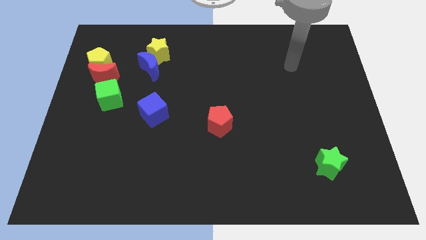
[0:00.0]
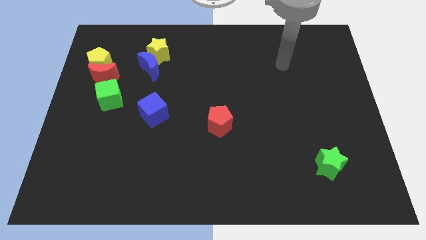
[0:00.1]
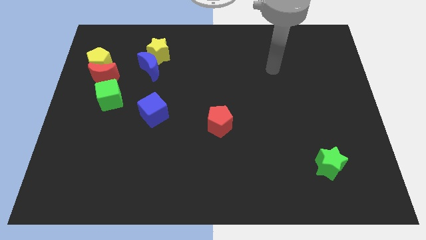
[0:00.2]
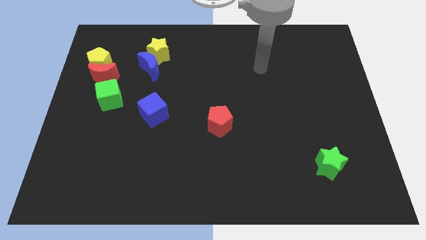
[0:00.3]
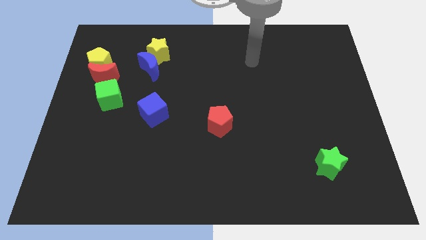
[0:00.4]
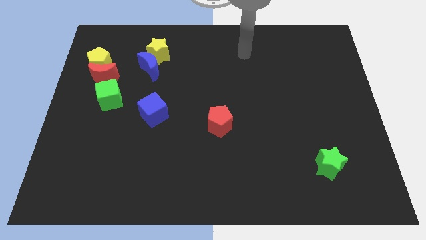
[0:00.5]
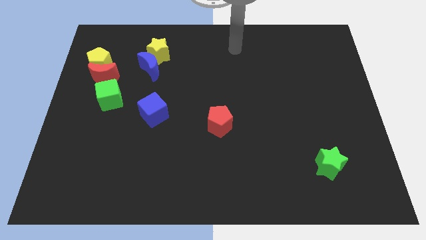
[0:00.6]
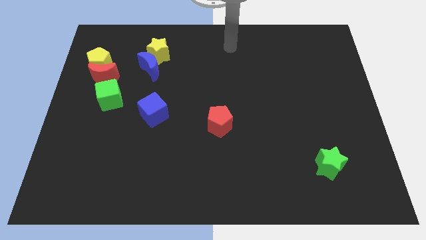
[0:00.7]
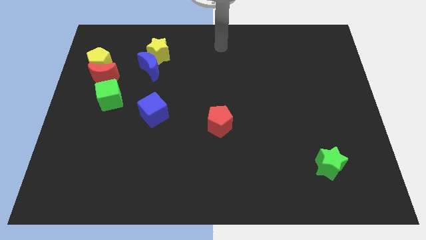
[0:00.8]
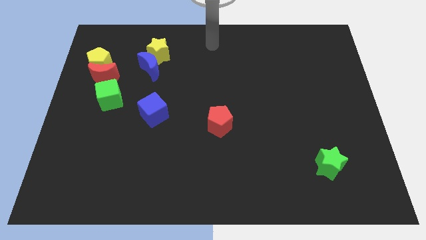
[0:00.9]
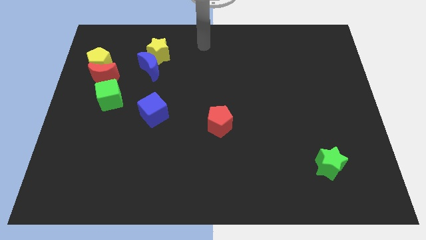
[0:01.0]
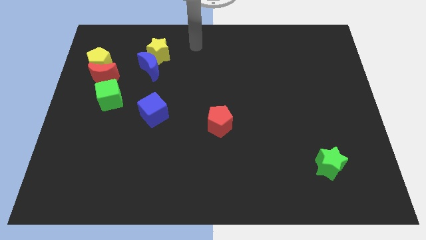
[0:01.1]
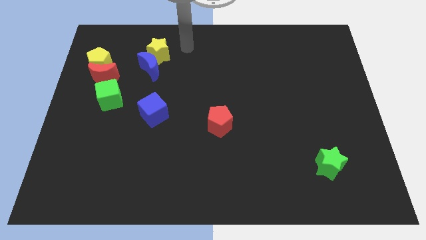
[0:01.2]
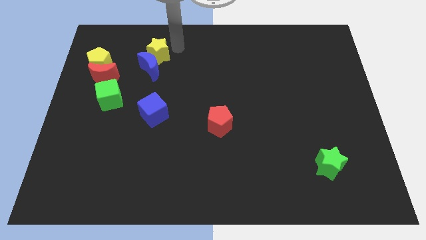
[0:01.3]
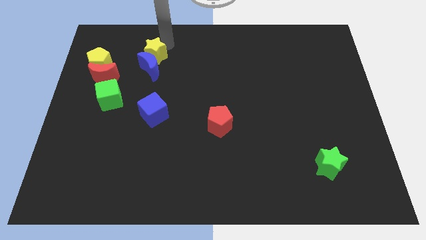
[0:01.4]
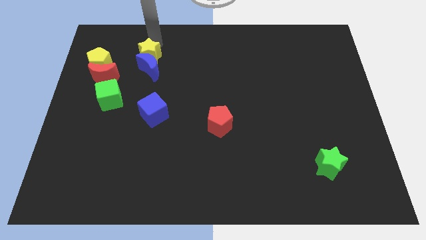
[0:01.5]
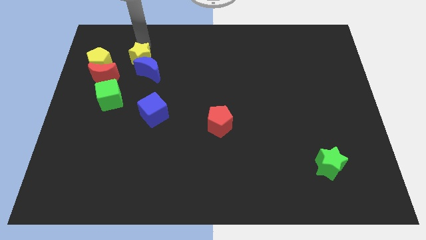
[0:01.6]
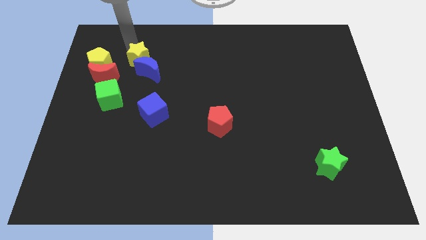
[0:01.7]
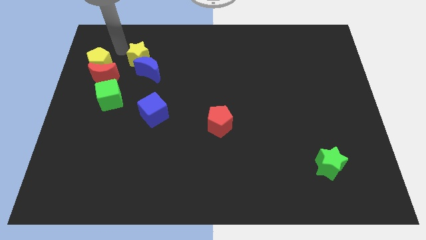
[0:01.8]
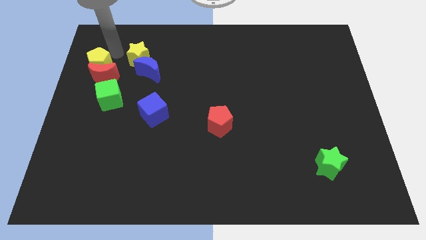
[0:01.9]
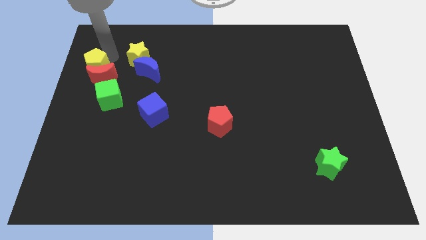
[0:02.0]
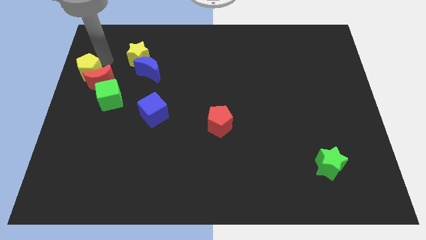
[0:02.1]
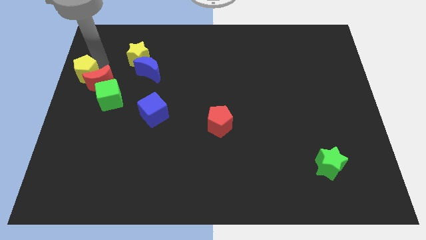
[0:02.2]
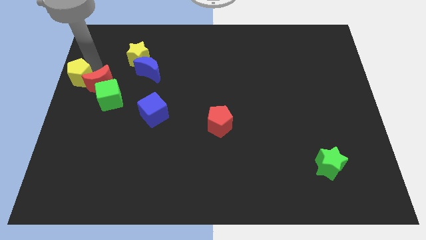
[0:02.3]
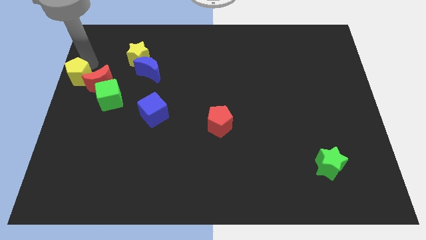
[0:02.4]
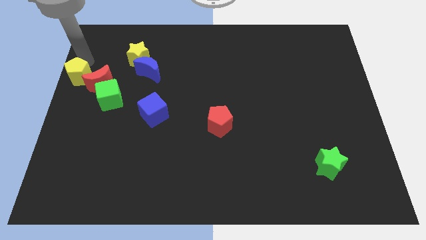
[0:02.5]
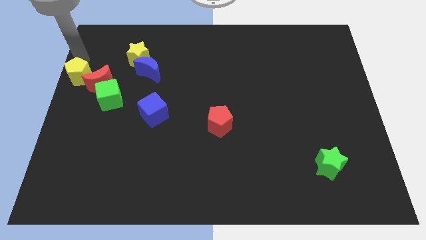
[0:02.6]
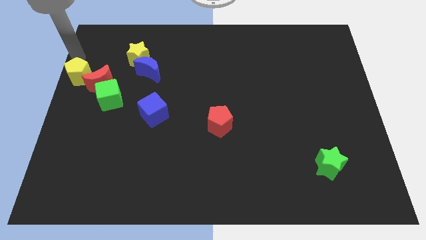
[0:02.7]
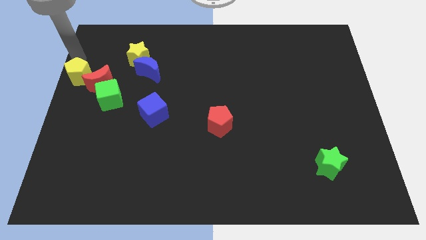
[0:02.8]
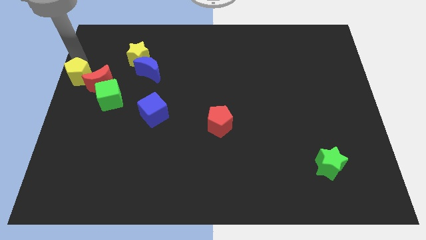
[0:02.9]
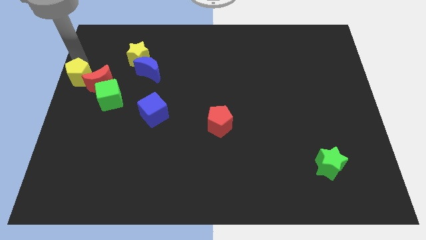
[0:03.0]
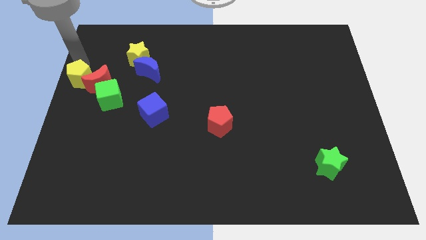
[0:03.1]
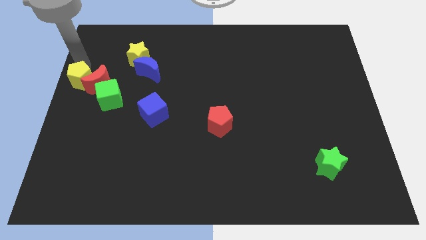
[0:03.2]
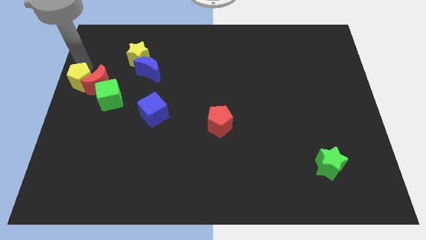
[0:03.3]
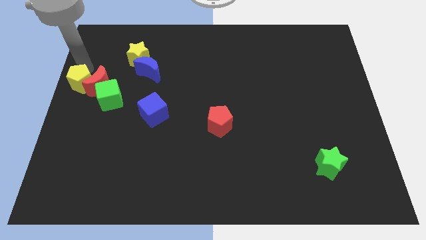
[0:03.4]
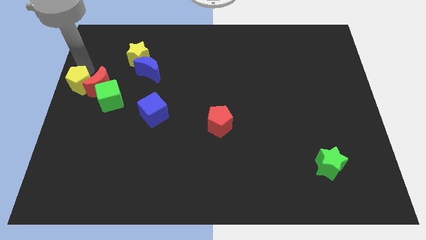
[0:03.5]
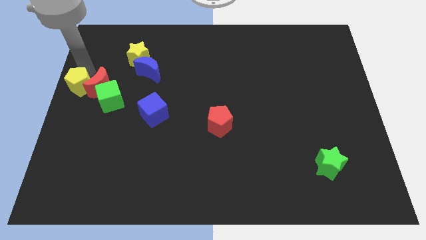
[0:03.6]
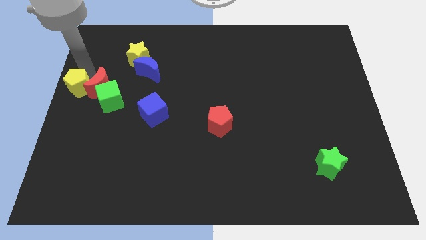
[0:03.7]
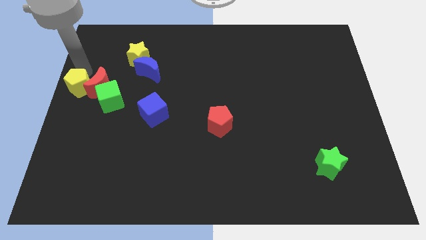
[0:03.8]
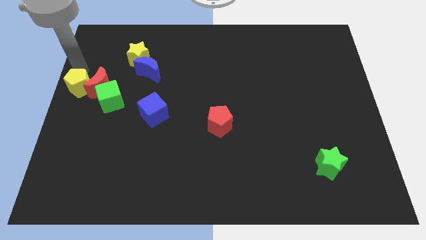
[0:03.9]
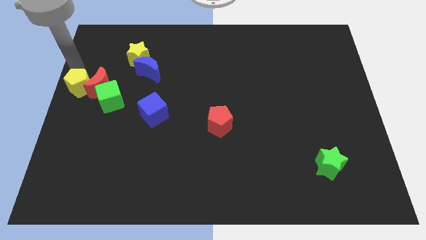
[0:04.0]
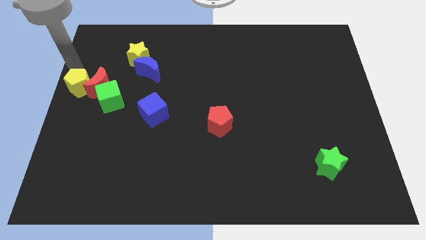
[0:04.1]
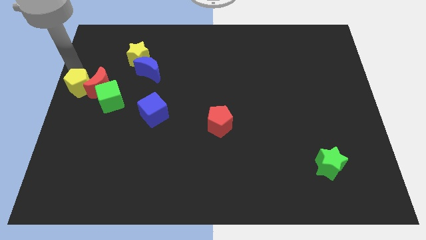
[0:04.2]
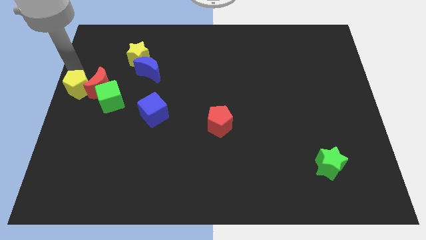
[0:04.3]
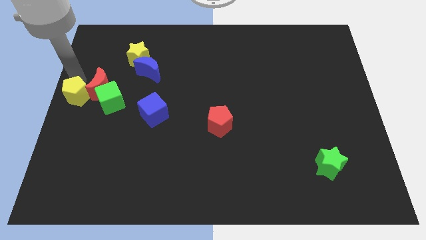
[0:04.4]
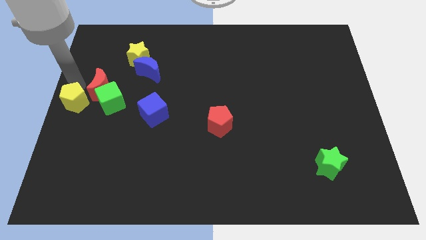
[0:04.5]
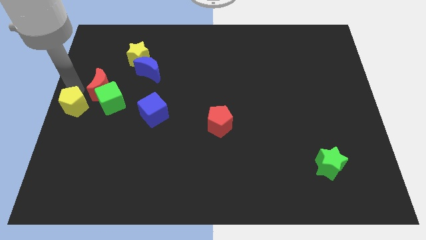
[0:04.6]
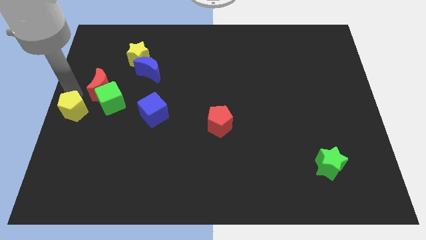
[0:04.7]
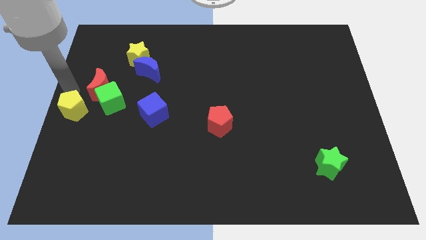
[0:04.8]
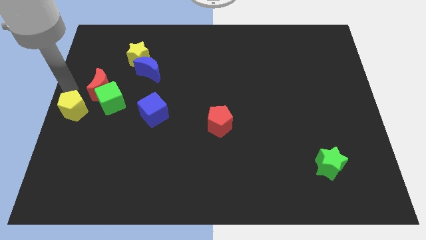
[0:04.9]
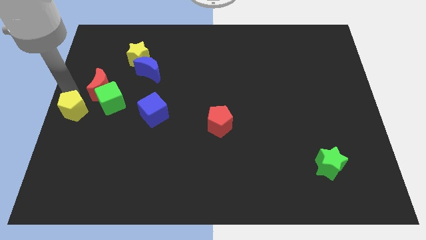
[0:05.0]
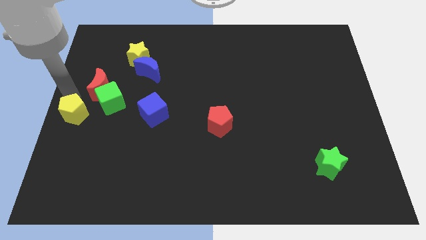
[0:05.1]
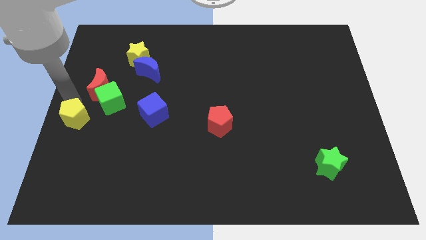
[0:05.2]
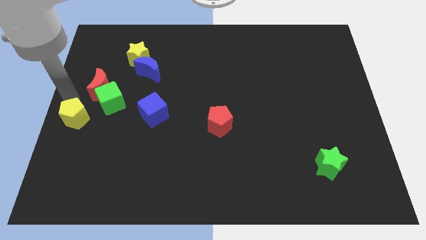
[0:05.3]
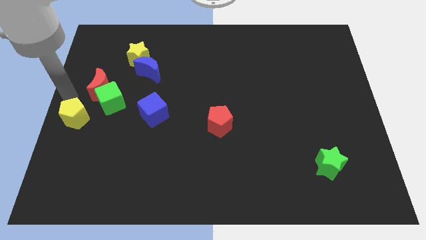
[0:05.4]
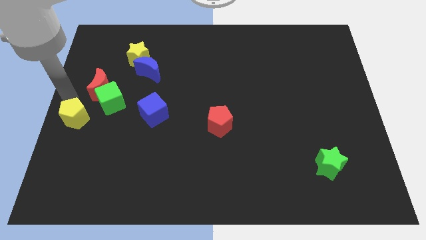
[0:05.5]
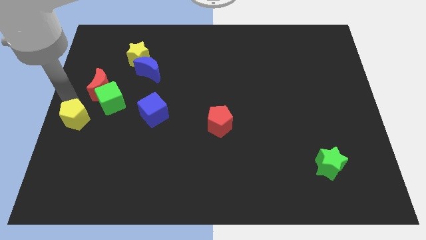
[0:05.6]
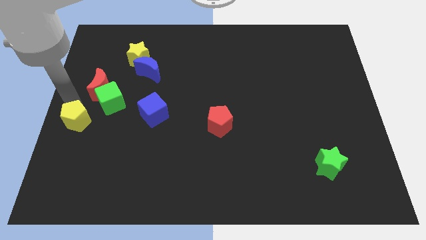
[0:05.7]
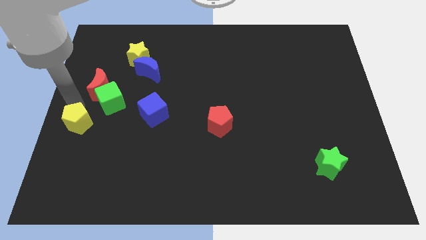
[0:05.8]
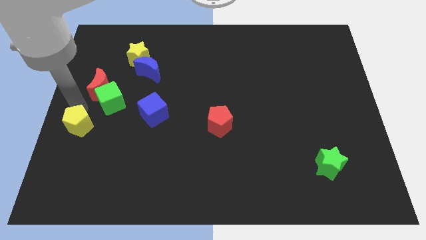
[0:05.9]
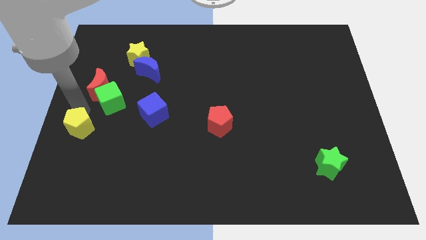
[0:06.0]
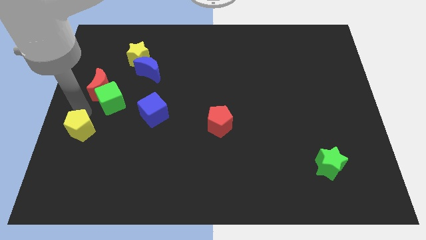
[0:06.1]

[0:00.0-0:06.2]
move the yellow pentagon downwards

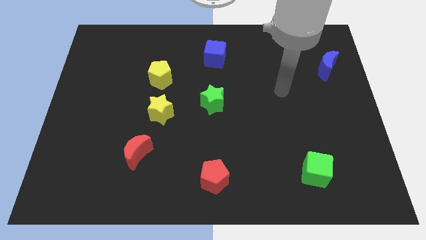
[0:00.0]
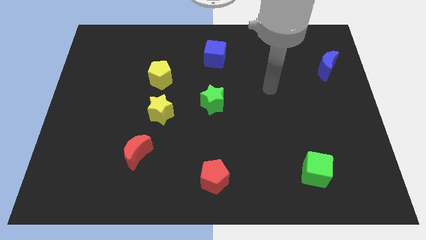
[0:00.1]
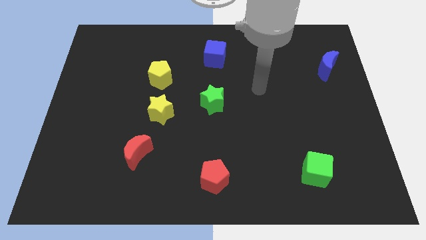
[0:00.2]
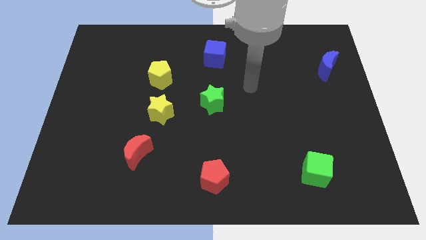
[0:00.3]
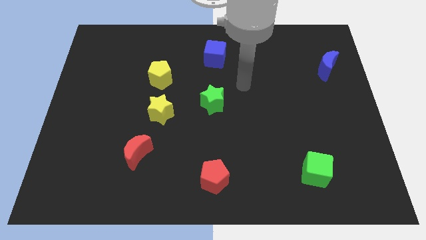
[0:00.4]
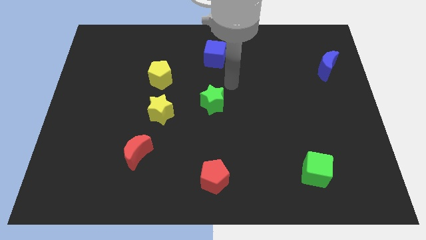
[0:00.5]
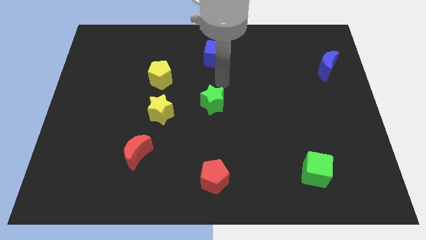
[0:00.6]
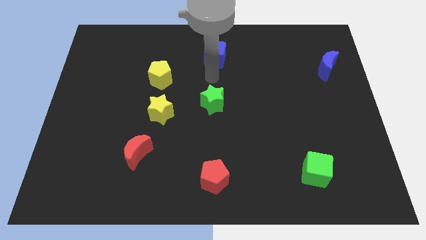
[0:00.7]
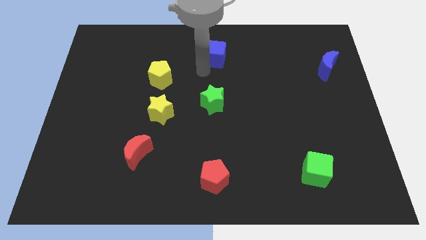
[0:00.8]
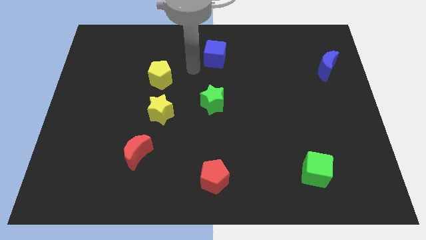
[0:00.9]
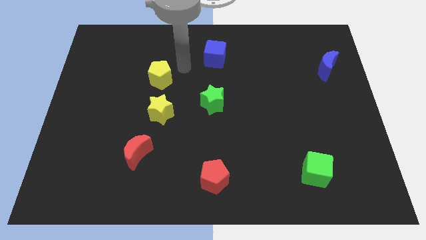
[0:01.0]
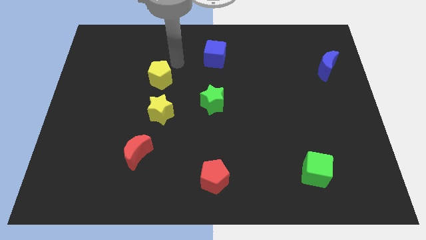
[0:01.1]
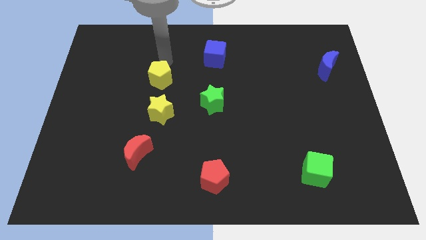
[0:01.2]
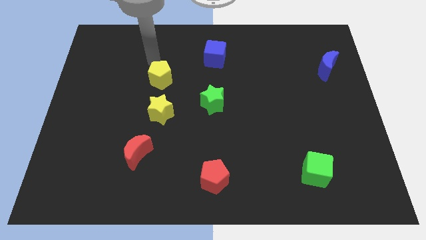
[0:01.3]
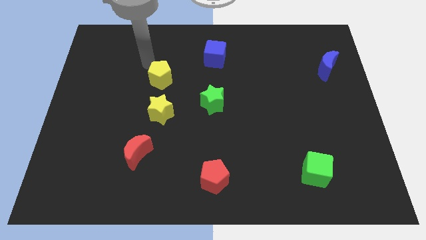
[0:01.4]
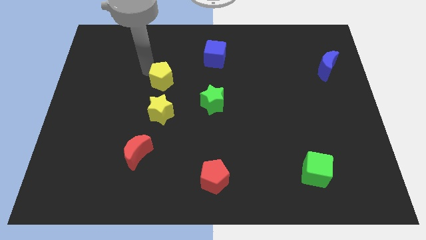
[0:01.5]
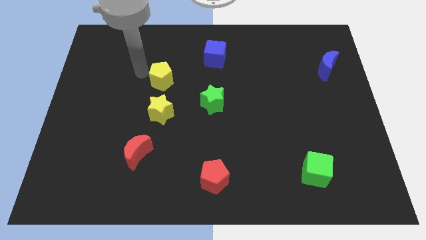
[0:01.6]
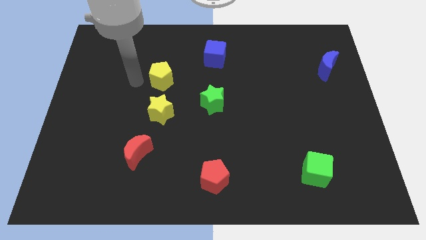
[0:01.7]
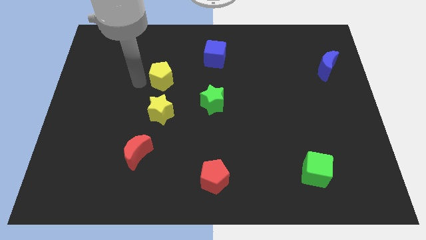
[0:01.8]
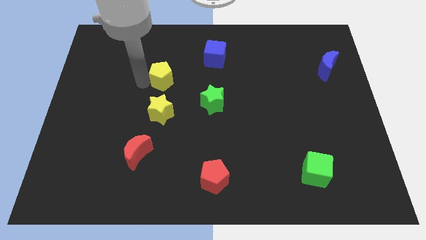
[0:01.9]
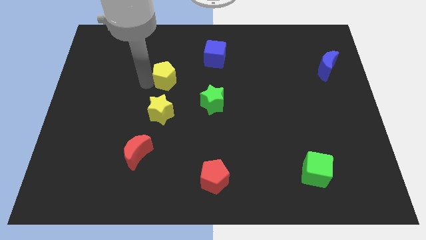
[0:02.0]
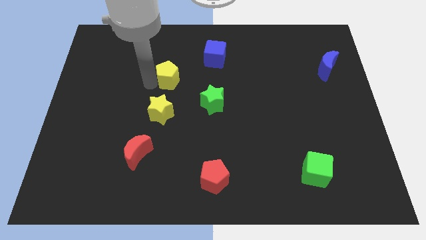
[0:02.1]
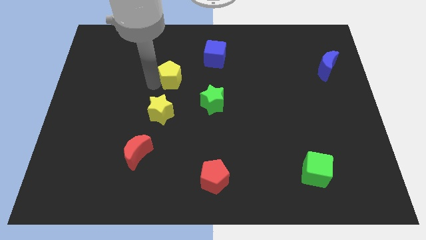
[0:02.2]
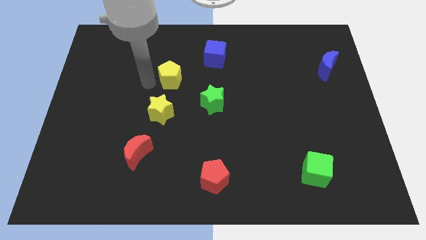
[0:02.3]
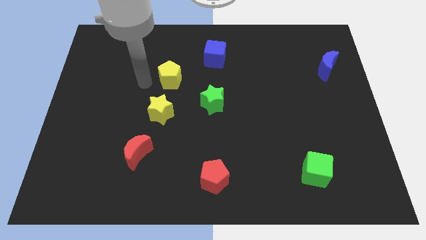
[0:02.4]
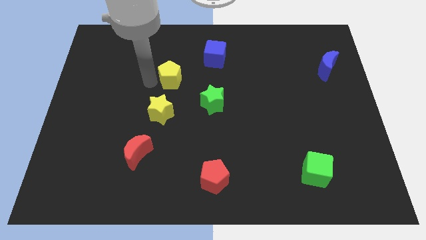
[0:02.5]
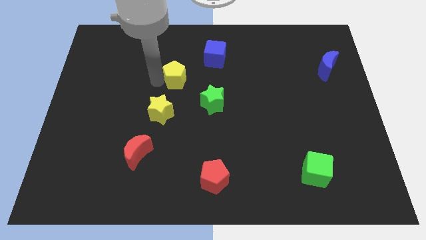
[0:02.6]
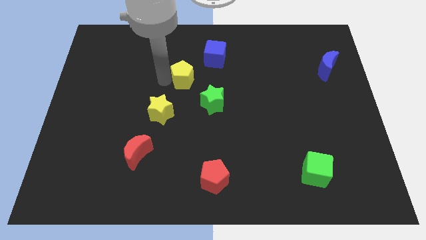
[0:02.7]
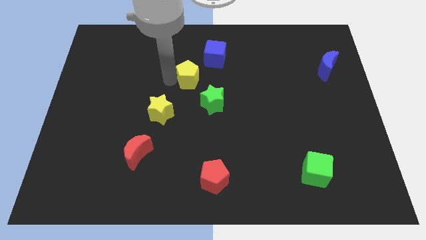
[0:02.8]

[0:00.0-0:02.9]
slide the yellow pentagon a little bit right
